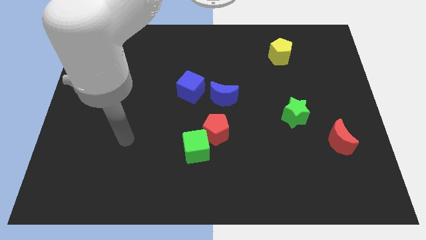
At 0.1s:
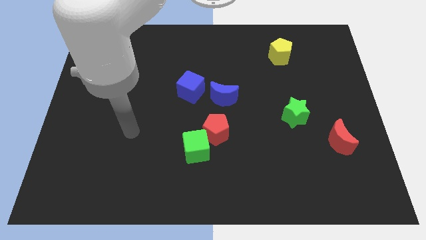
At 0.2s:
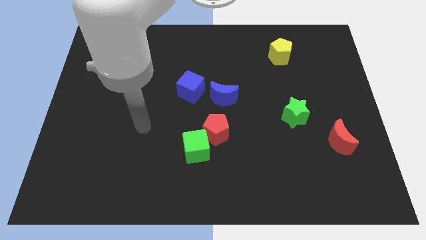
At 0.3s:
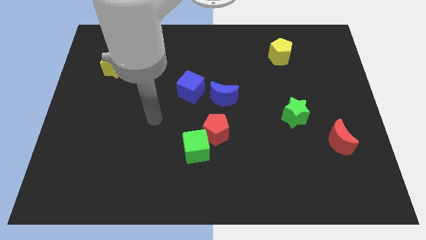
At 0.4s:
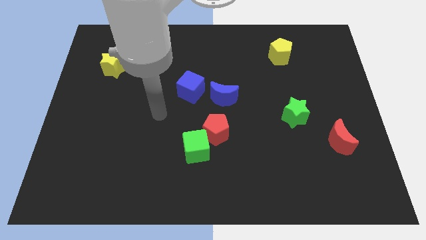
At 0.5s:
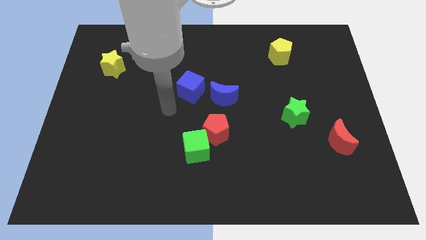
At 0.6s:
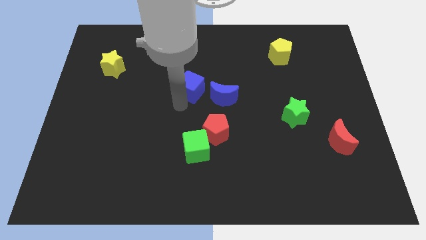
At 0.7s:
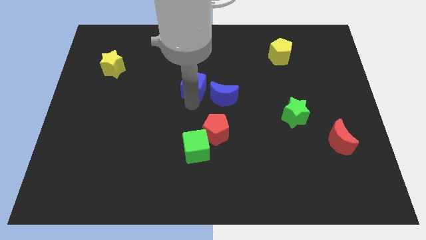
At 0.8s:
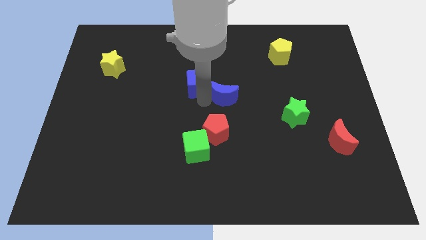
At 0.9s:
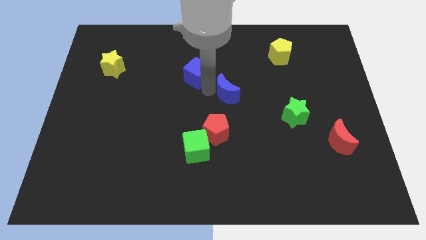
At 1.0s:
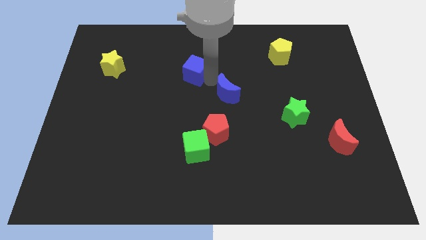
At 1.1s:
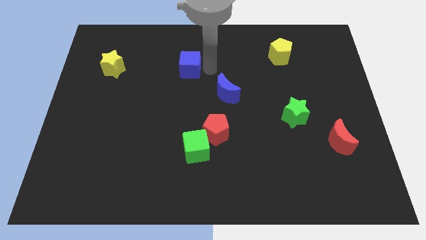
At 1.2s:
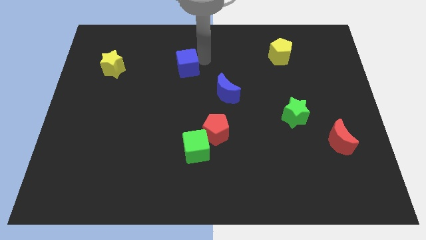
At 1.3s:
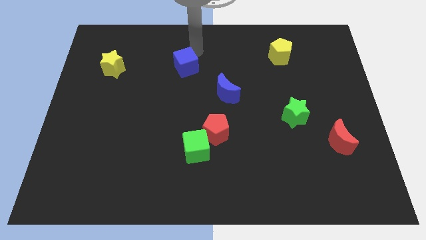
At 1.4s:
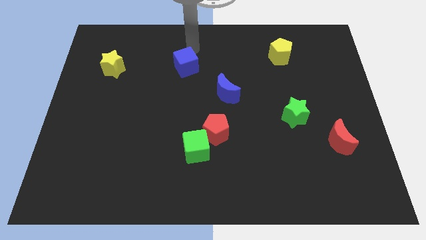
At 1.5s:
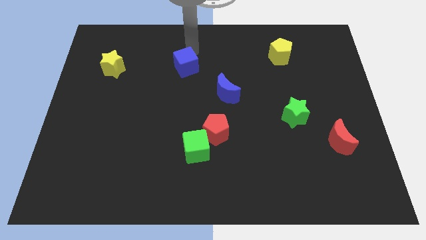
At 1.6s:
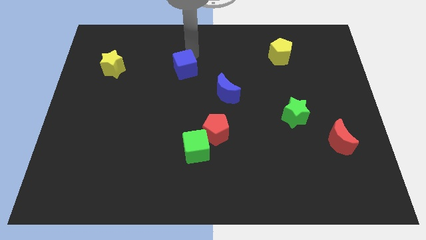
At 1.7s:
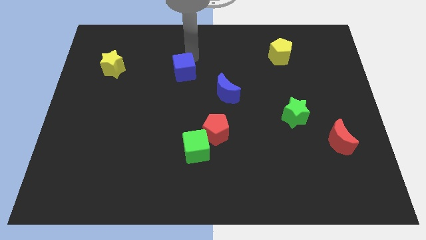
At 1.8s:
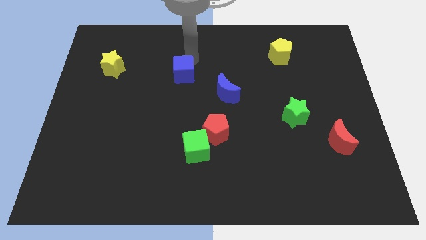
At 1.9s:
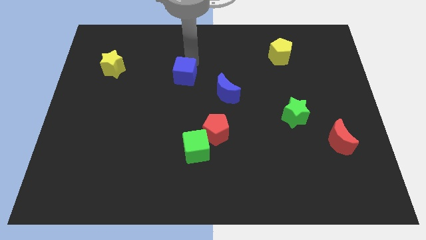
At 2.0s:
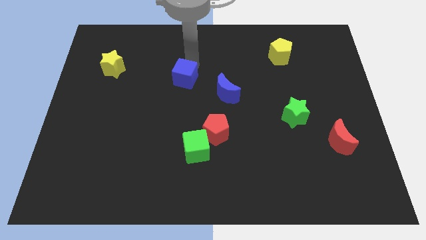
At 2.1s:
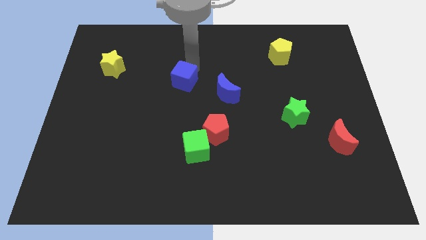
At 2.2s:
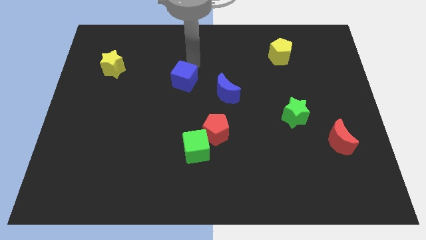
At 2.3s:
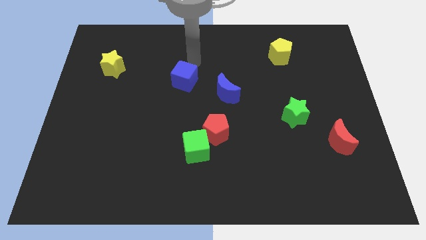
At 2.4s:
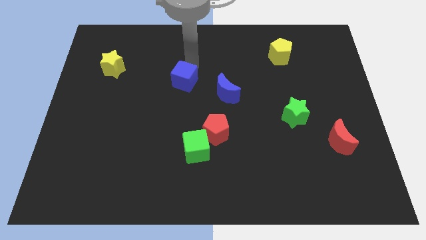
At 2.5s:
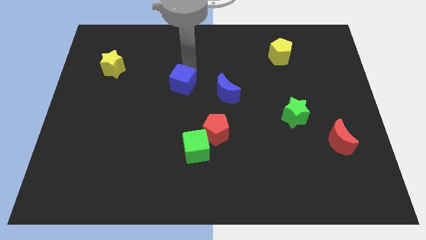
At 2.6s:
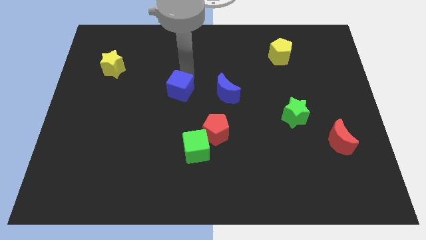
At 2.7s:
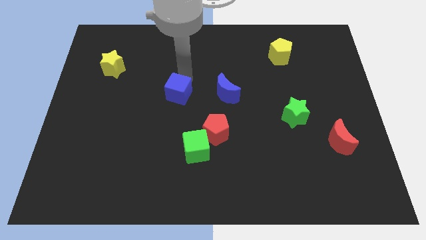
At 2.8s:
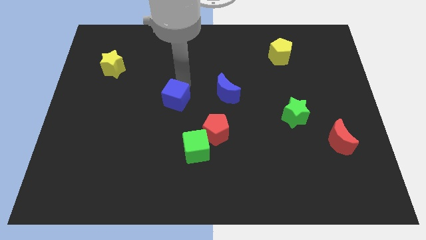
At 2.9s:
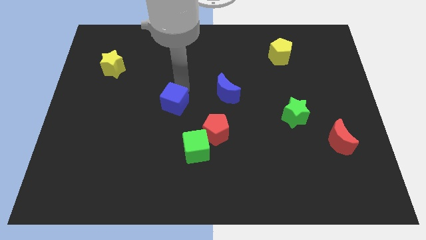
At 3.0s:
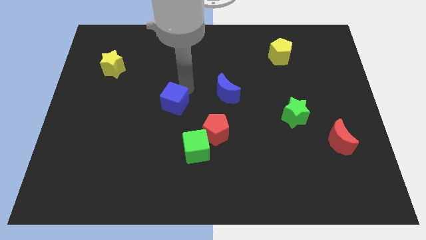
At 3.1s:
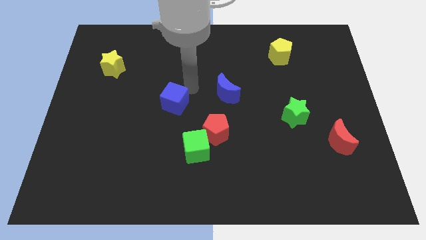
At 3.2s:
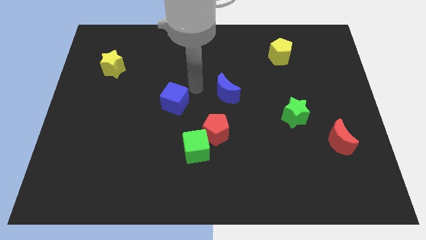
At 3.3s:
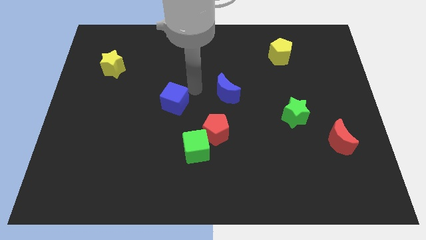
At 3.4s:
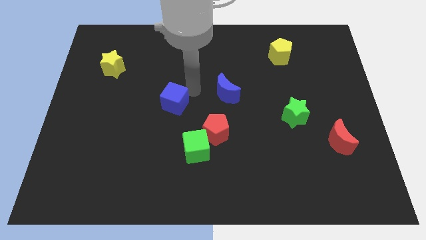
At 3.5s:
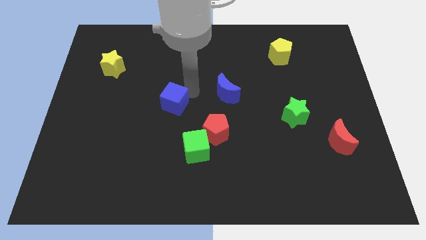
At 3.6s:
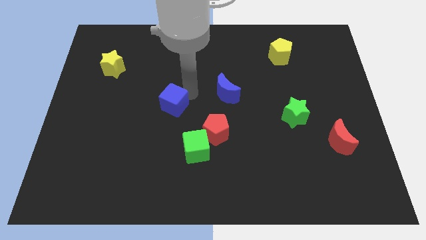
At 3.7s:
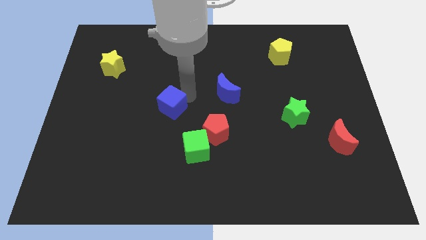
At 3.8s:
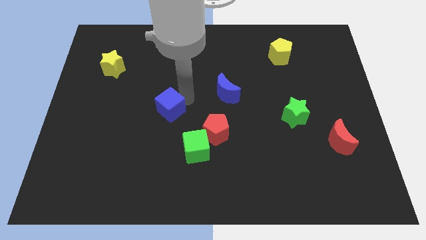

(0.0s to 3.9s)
slide the blue cube down and to the left diagonally a little

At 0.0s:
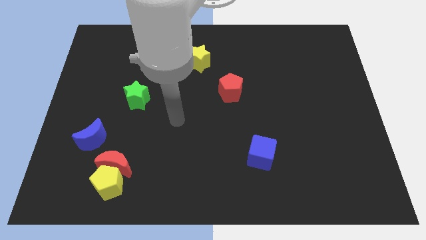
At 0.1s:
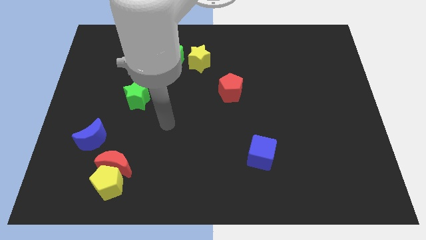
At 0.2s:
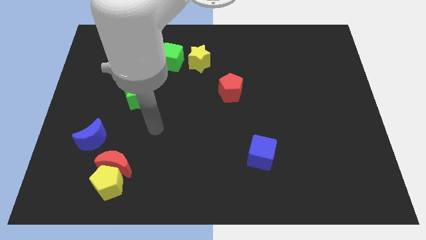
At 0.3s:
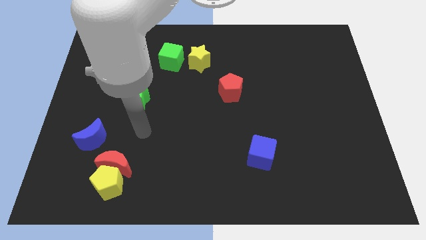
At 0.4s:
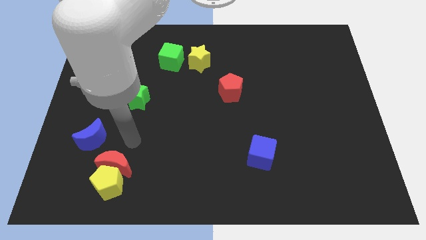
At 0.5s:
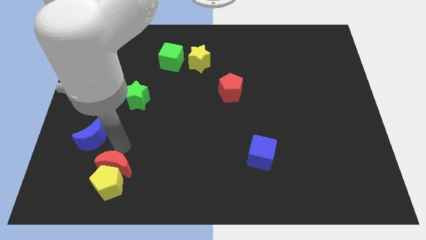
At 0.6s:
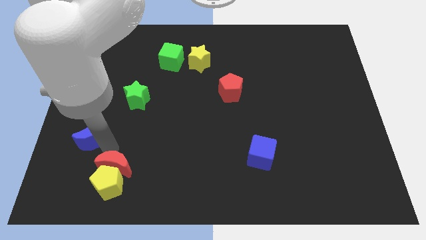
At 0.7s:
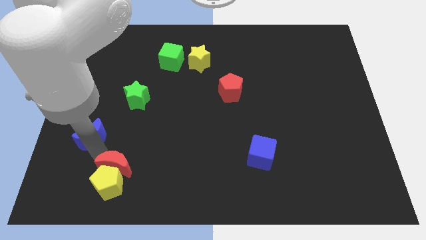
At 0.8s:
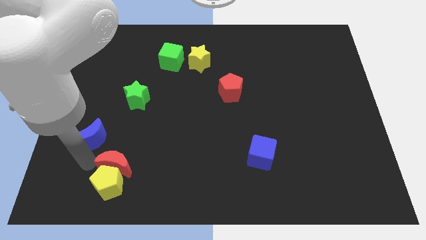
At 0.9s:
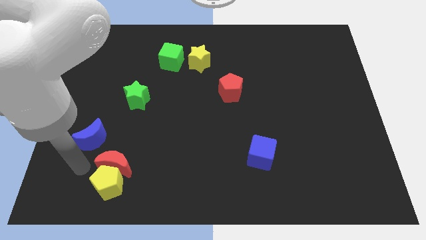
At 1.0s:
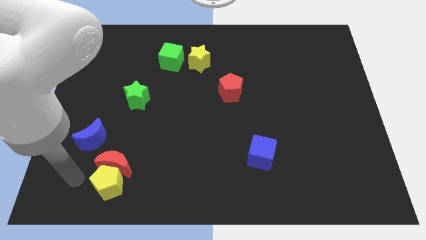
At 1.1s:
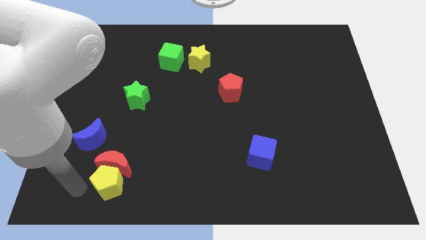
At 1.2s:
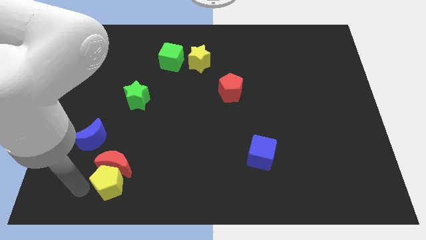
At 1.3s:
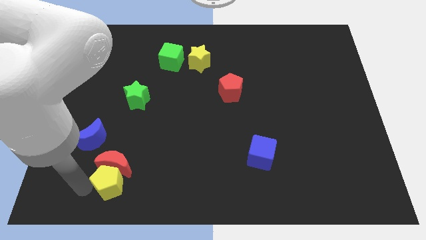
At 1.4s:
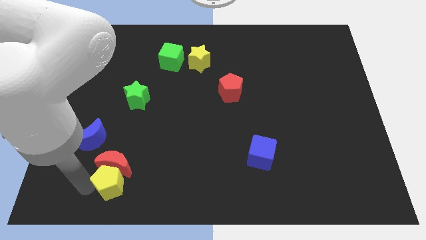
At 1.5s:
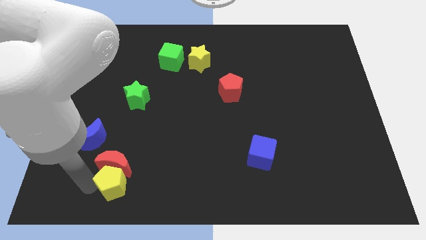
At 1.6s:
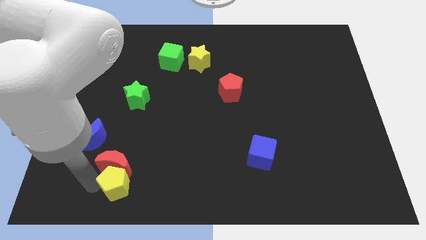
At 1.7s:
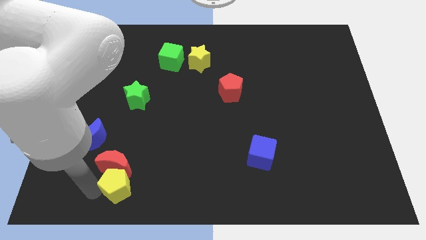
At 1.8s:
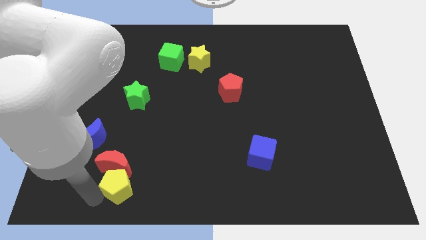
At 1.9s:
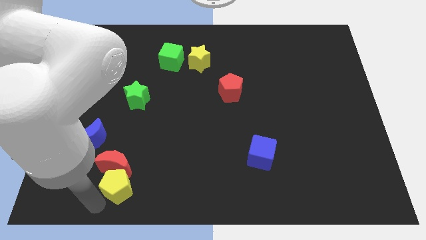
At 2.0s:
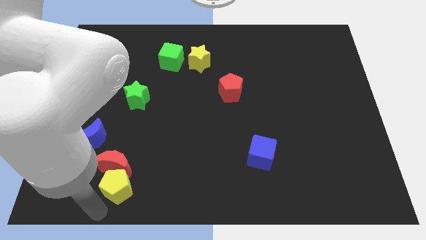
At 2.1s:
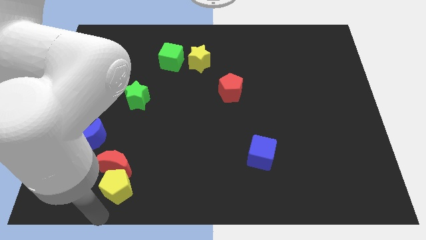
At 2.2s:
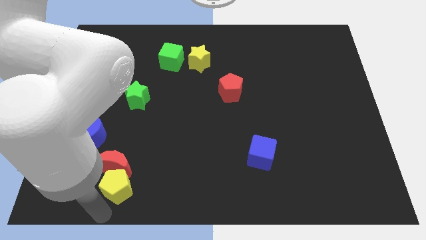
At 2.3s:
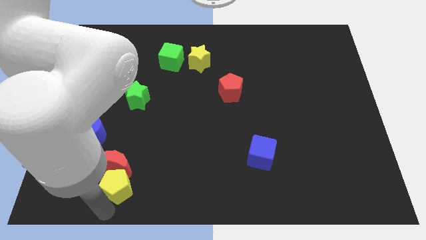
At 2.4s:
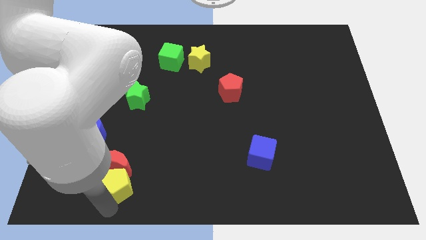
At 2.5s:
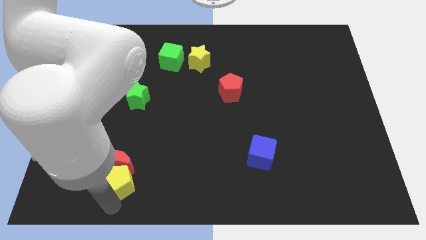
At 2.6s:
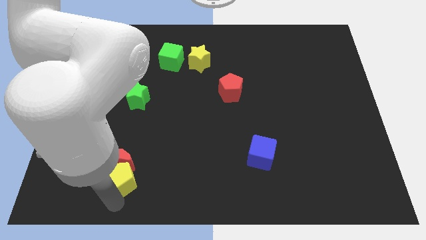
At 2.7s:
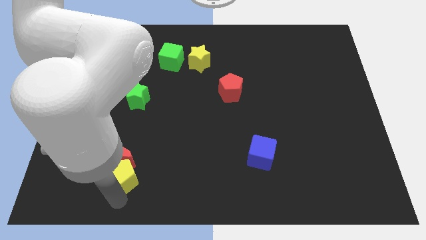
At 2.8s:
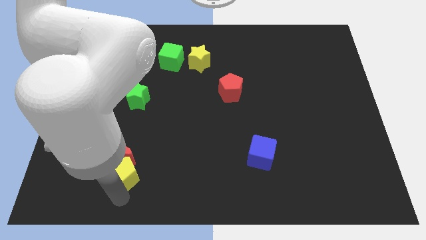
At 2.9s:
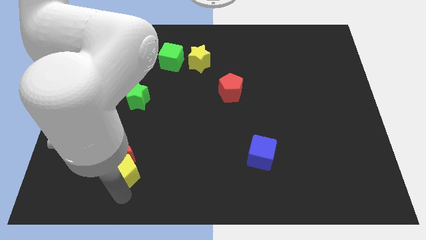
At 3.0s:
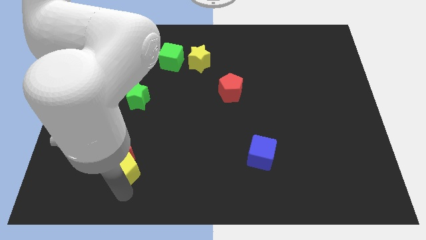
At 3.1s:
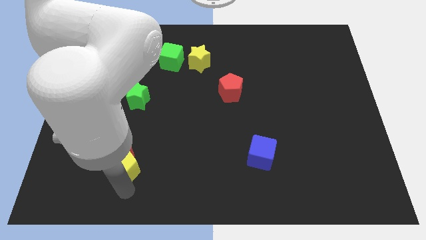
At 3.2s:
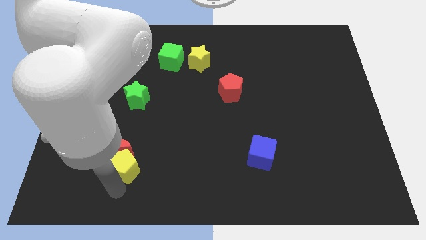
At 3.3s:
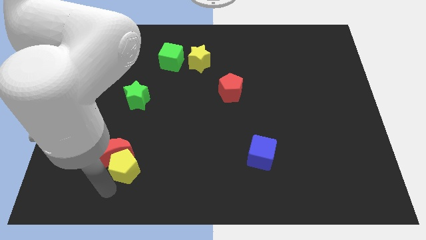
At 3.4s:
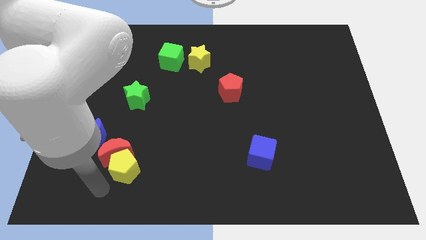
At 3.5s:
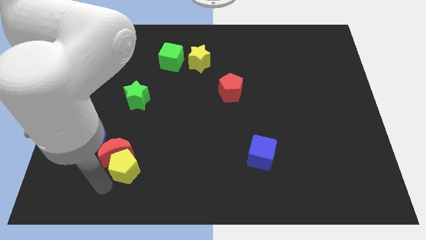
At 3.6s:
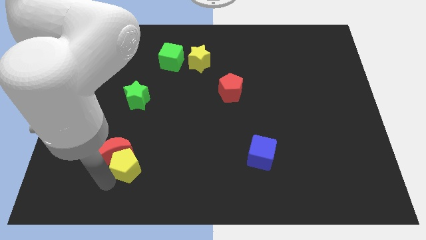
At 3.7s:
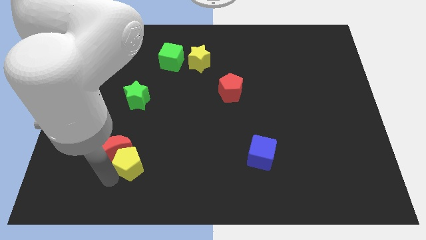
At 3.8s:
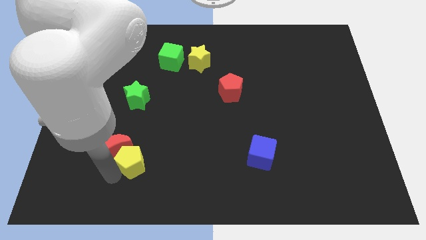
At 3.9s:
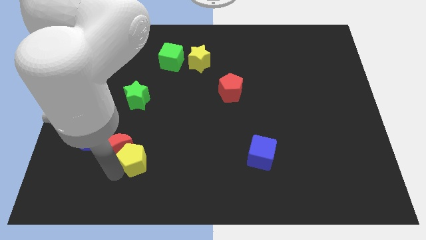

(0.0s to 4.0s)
slide the yellow pentagon somewhat up and right

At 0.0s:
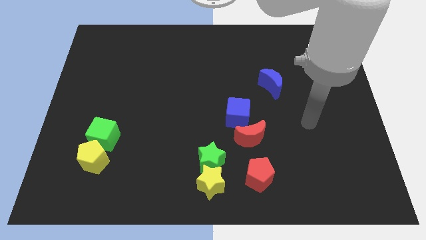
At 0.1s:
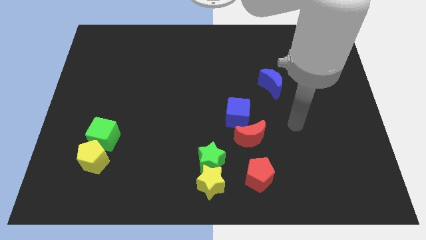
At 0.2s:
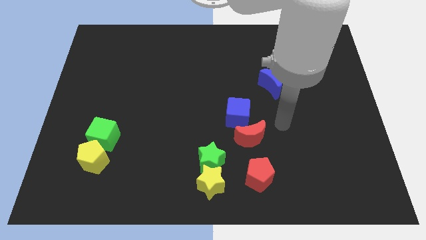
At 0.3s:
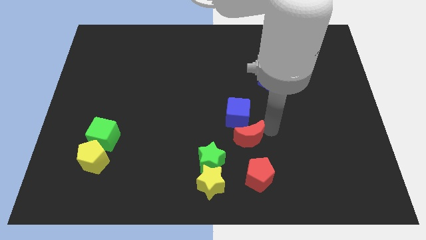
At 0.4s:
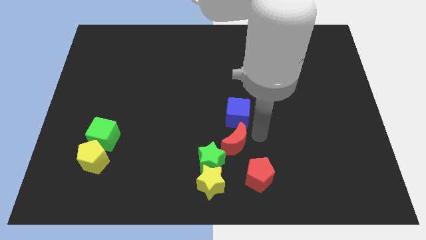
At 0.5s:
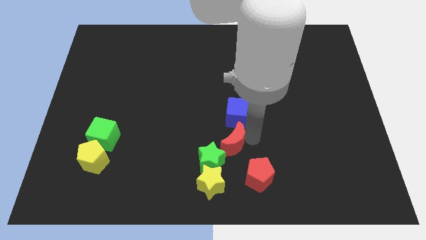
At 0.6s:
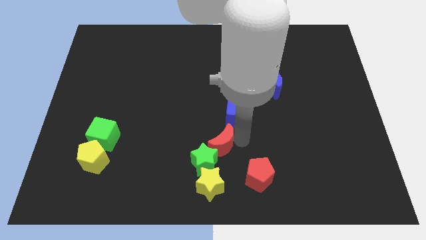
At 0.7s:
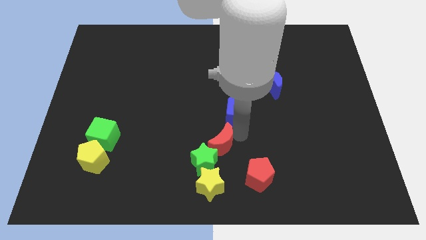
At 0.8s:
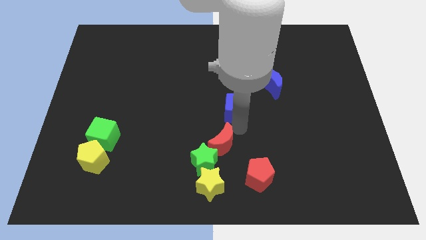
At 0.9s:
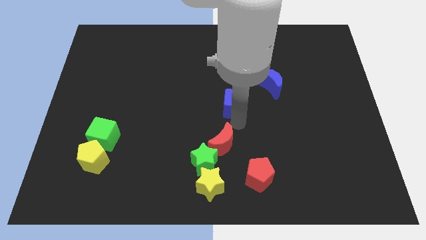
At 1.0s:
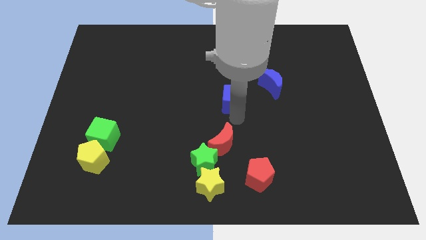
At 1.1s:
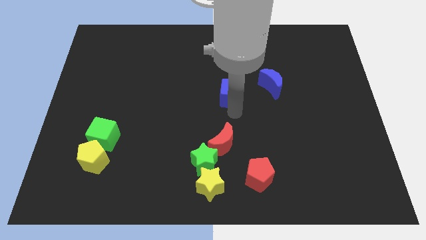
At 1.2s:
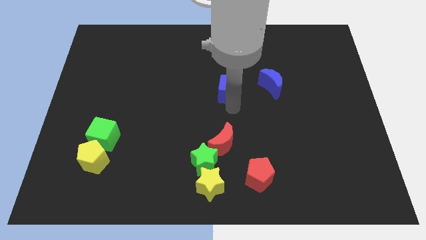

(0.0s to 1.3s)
push the blue cube a little up
